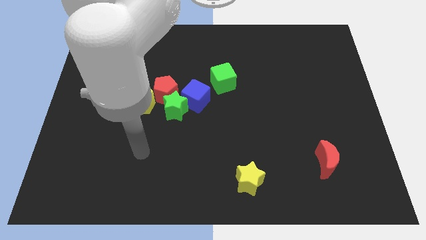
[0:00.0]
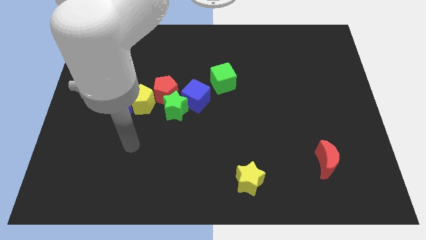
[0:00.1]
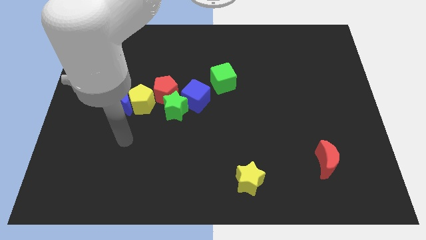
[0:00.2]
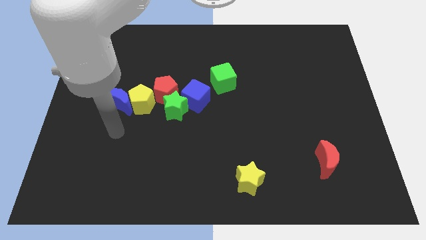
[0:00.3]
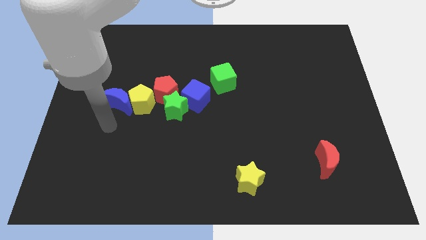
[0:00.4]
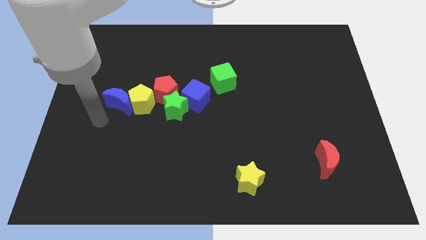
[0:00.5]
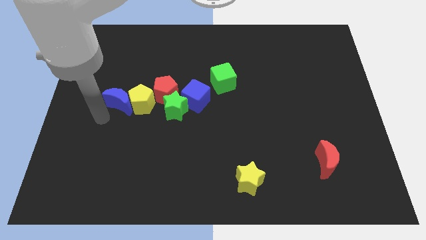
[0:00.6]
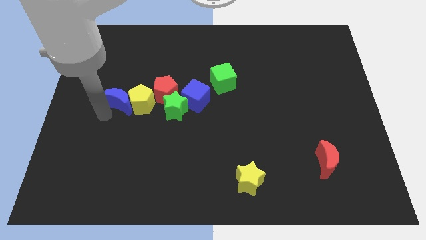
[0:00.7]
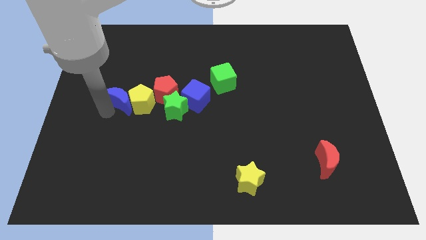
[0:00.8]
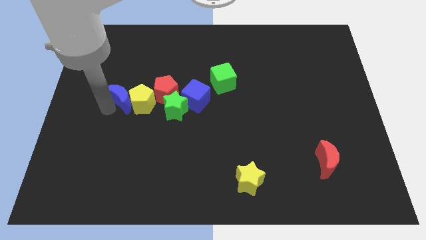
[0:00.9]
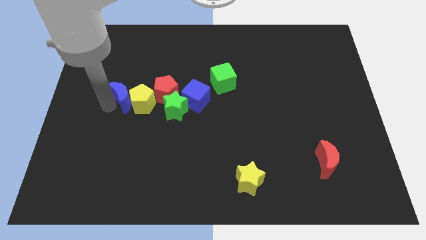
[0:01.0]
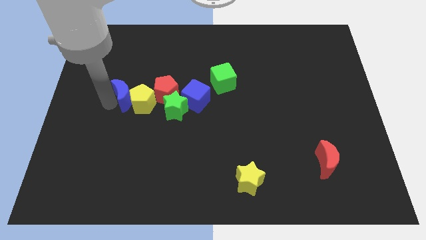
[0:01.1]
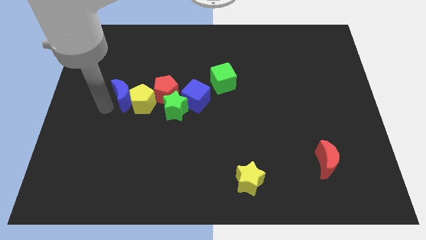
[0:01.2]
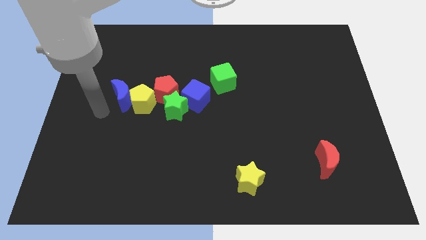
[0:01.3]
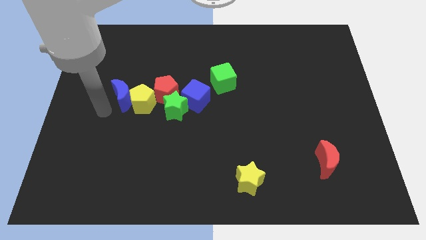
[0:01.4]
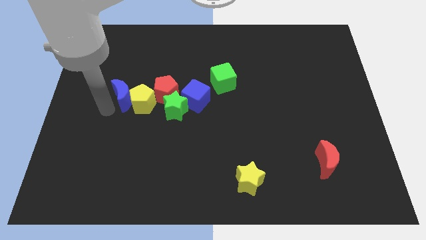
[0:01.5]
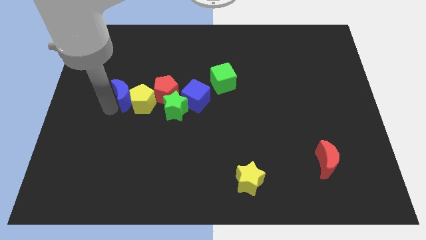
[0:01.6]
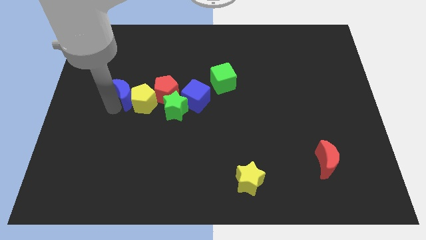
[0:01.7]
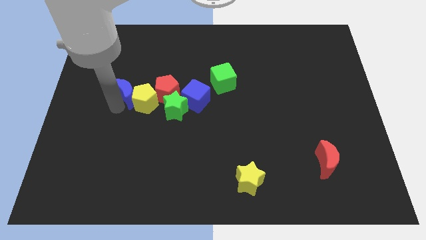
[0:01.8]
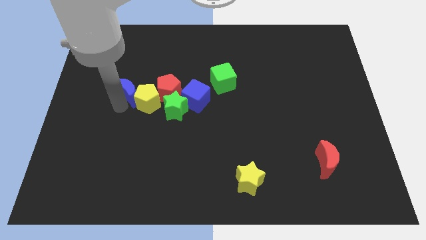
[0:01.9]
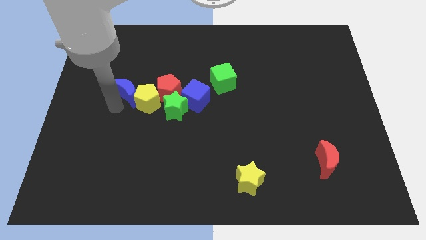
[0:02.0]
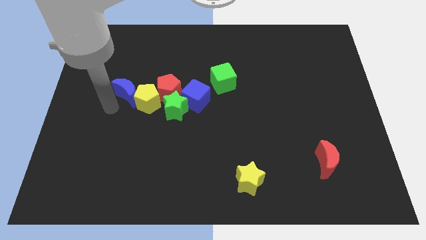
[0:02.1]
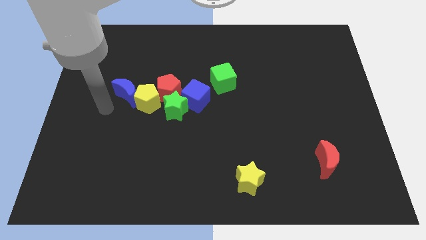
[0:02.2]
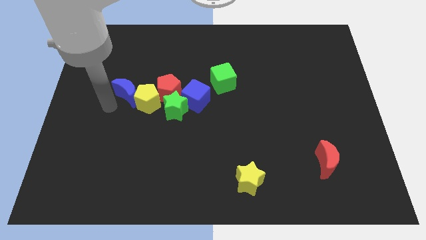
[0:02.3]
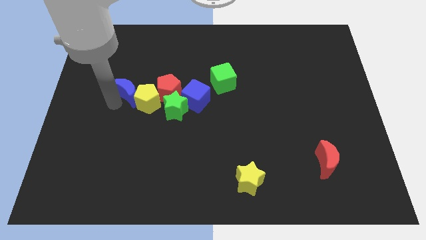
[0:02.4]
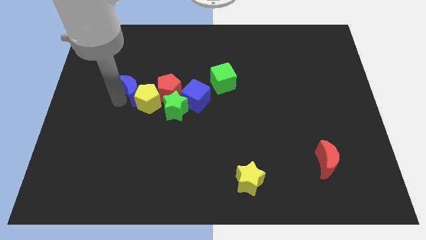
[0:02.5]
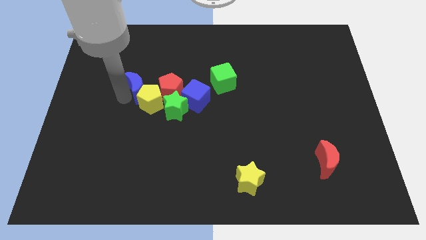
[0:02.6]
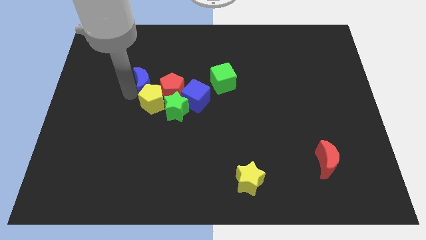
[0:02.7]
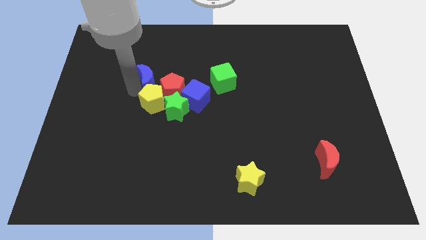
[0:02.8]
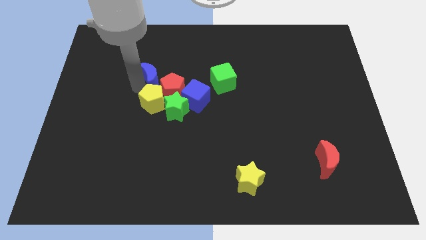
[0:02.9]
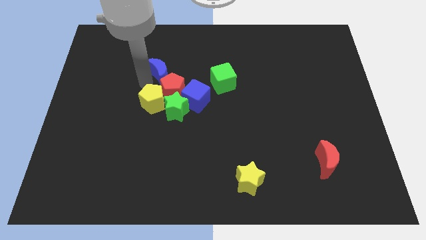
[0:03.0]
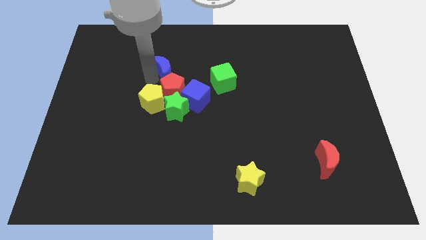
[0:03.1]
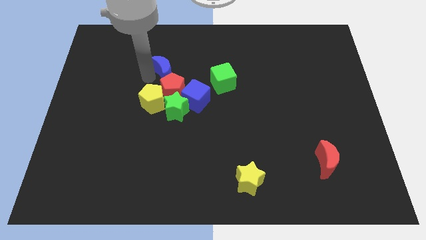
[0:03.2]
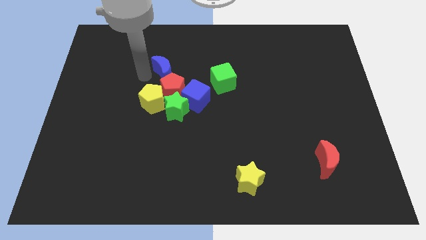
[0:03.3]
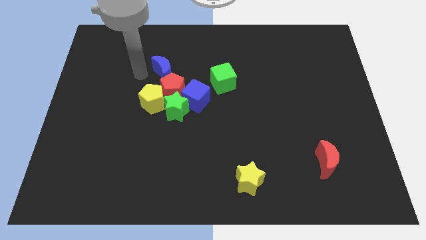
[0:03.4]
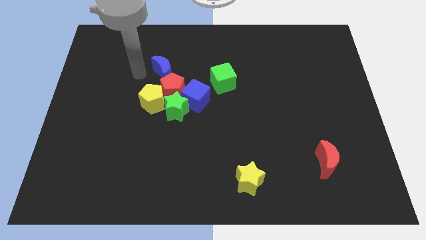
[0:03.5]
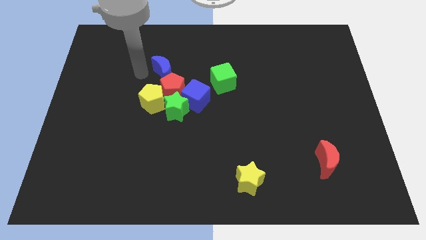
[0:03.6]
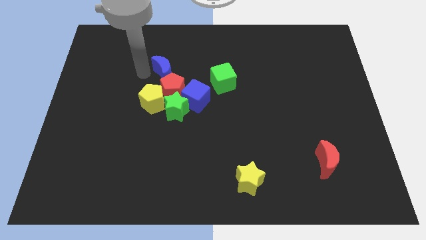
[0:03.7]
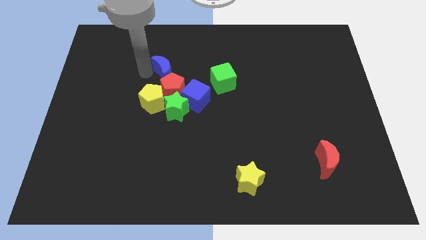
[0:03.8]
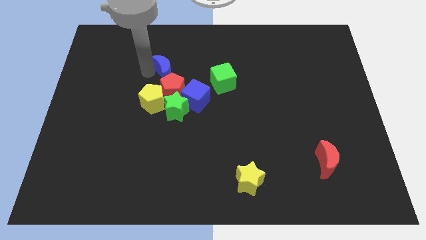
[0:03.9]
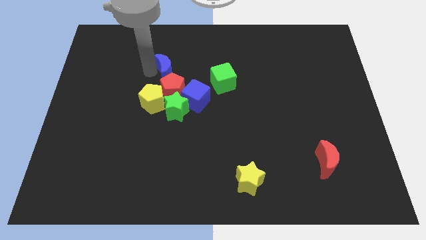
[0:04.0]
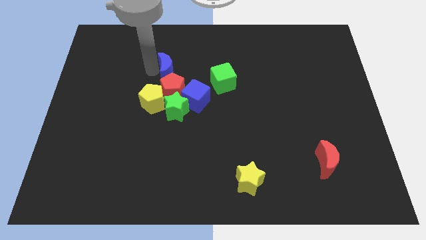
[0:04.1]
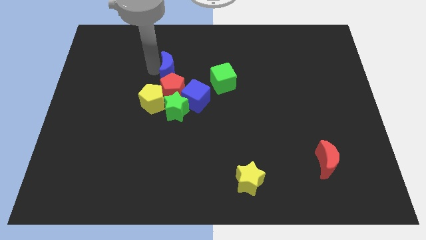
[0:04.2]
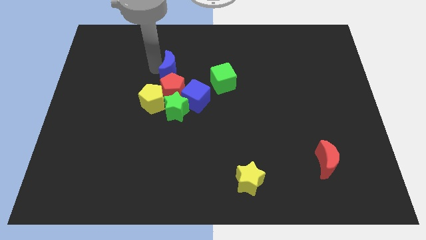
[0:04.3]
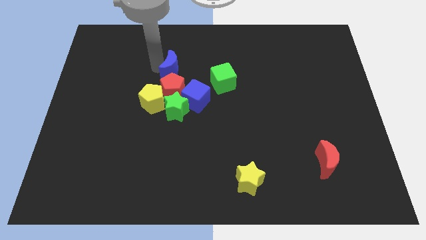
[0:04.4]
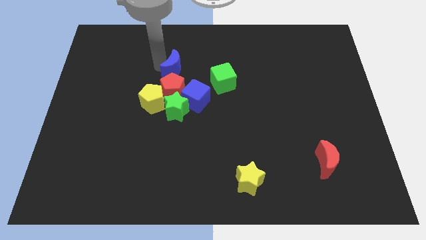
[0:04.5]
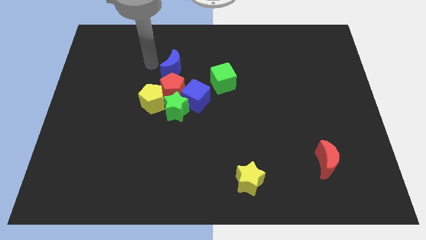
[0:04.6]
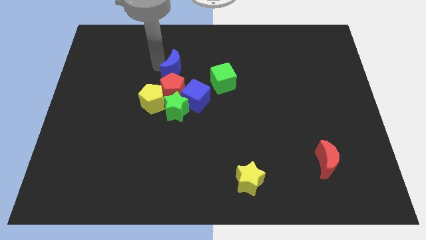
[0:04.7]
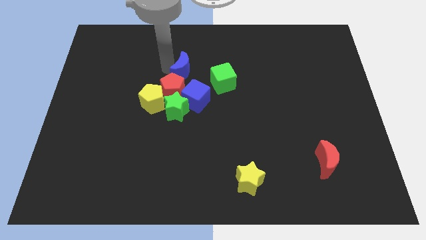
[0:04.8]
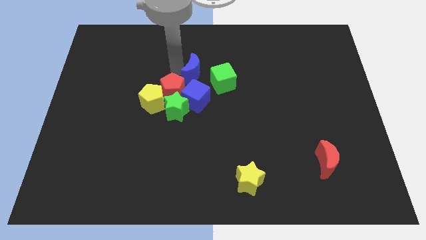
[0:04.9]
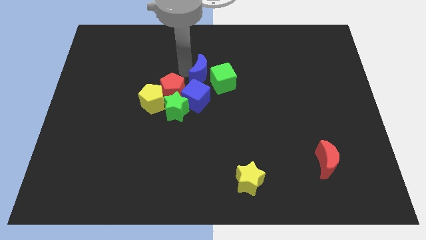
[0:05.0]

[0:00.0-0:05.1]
move the blue moon close to the green cube

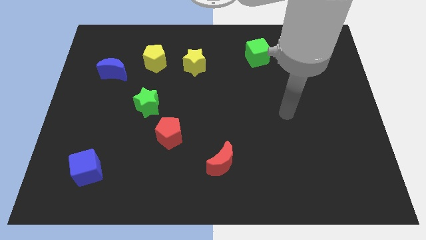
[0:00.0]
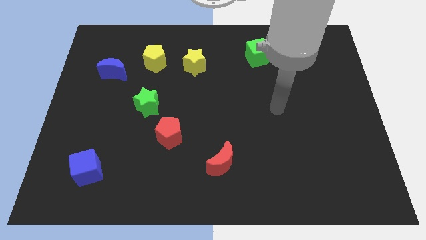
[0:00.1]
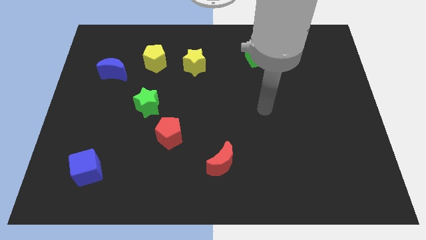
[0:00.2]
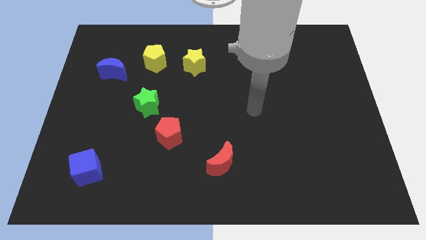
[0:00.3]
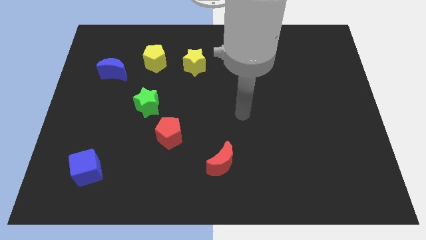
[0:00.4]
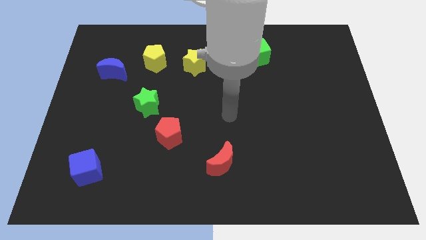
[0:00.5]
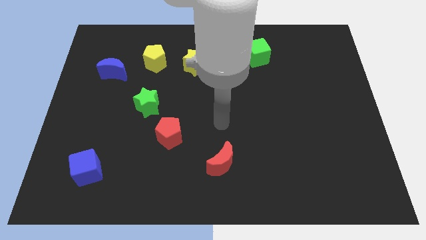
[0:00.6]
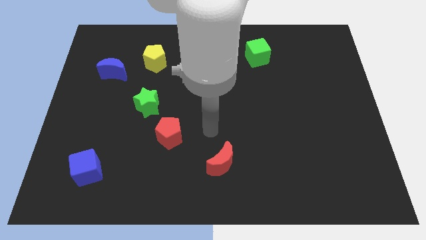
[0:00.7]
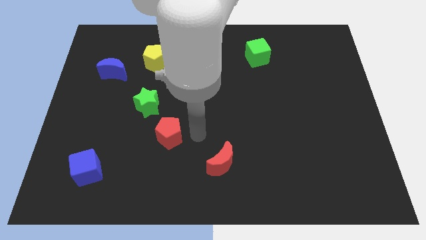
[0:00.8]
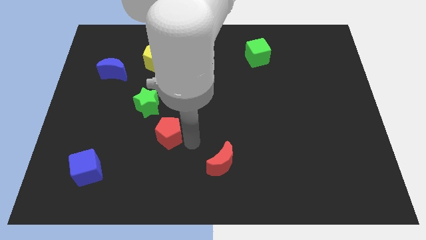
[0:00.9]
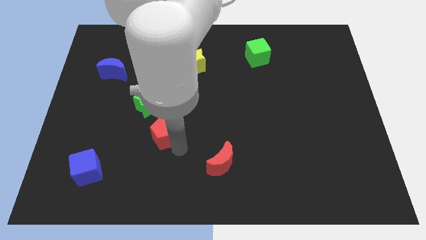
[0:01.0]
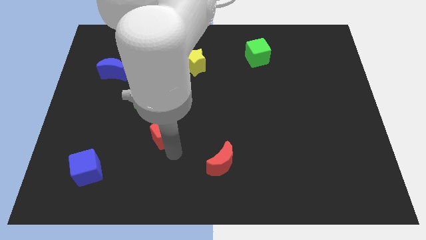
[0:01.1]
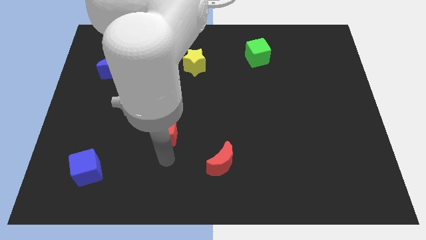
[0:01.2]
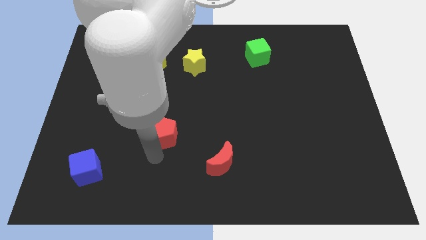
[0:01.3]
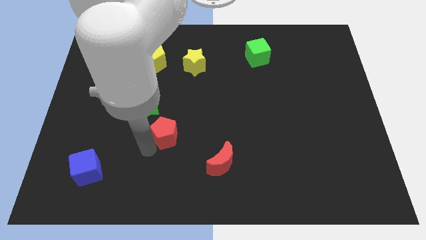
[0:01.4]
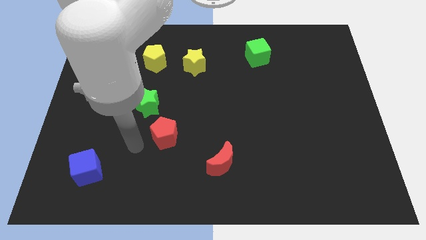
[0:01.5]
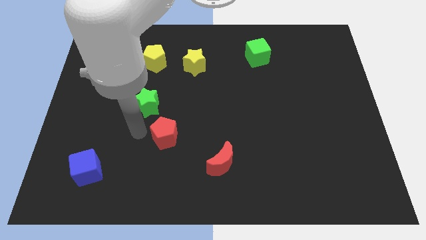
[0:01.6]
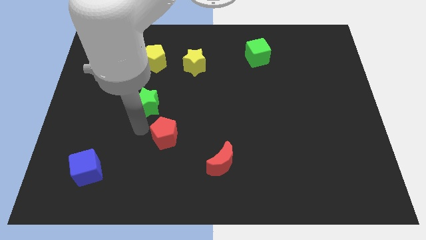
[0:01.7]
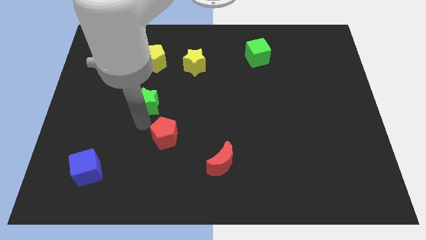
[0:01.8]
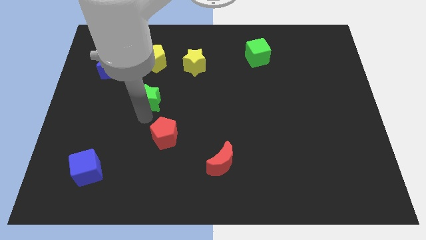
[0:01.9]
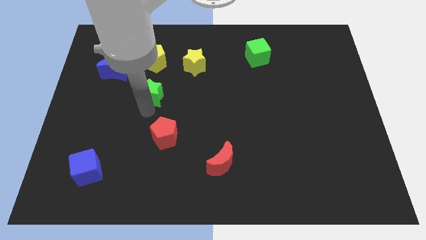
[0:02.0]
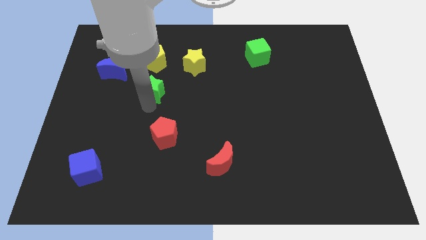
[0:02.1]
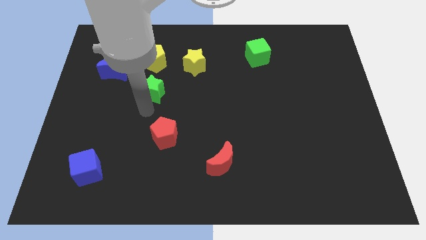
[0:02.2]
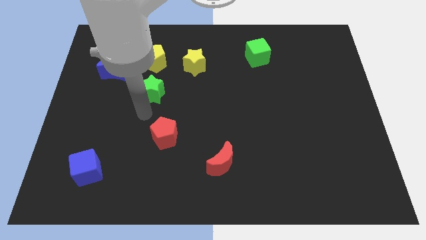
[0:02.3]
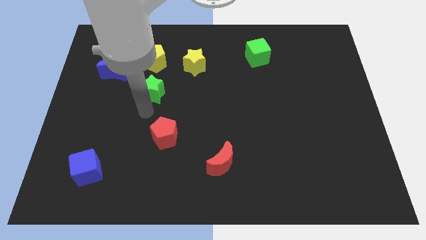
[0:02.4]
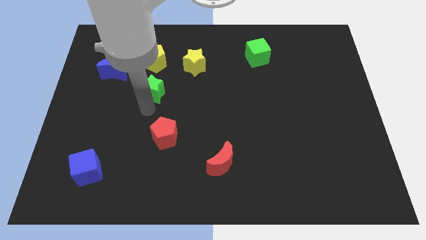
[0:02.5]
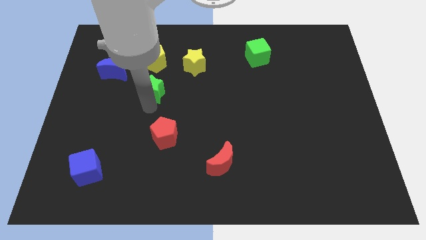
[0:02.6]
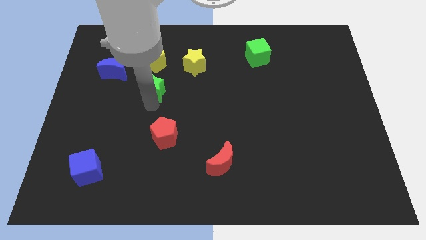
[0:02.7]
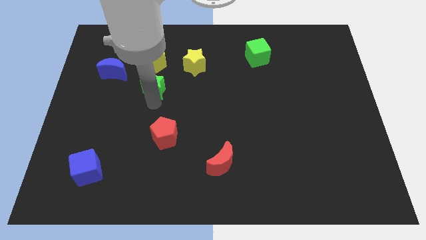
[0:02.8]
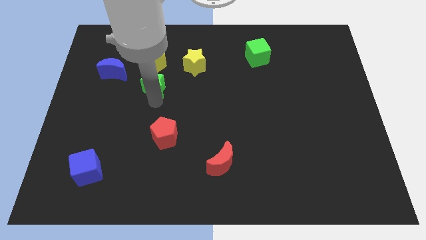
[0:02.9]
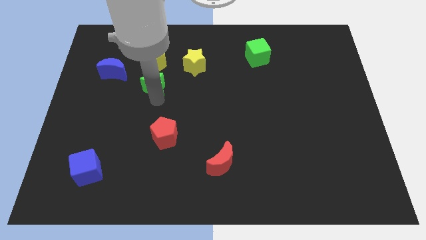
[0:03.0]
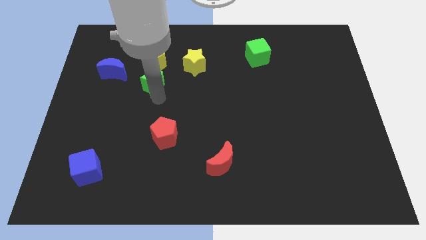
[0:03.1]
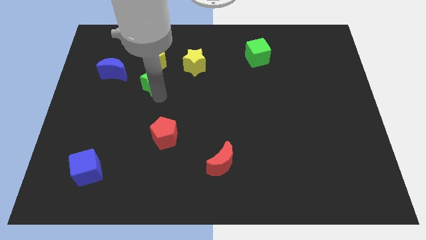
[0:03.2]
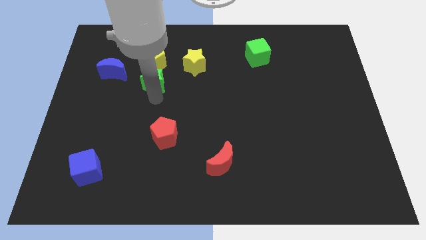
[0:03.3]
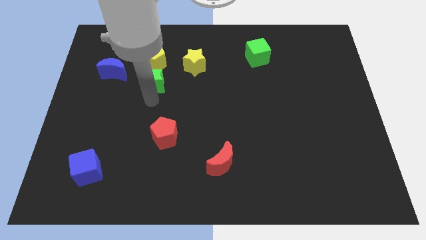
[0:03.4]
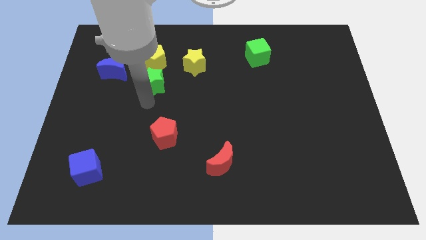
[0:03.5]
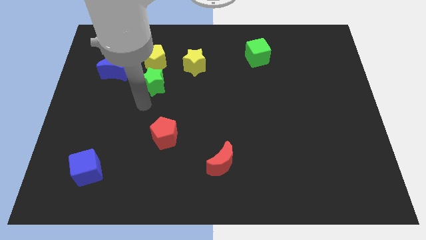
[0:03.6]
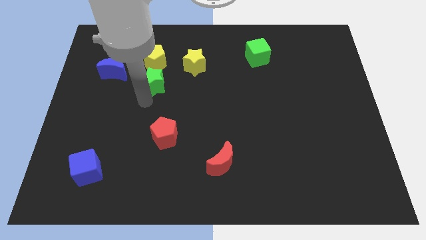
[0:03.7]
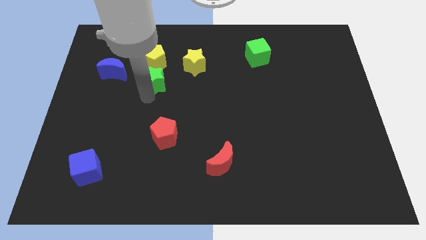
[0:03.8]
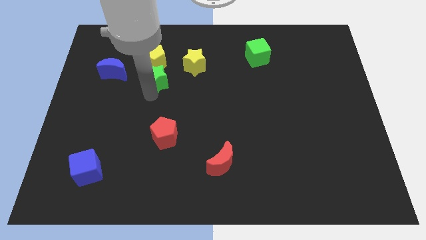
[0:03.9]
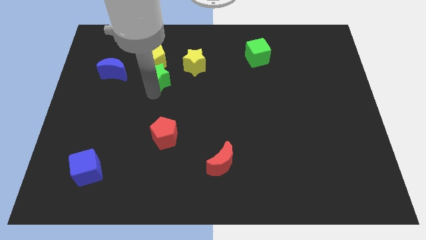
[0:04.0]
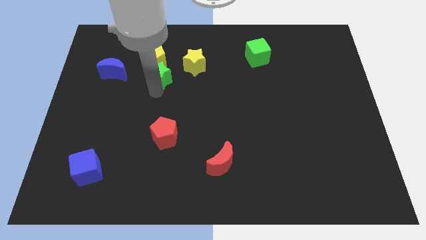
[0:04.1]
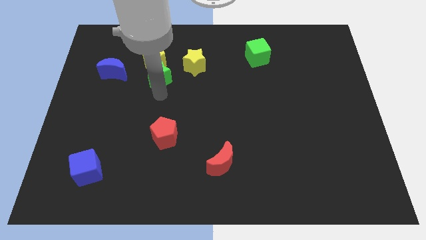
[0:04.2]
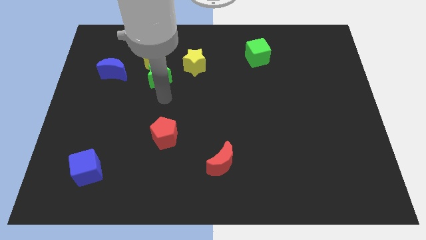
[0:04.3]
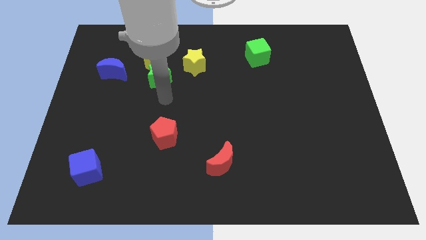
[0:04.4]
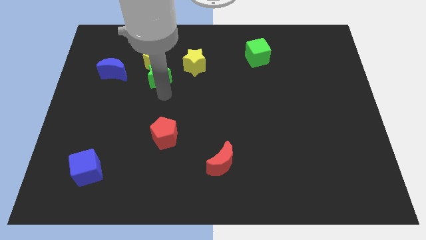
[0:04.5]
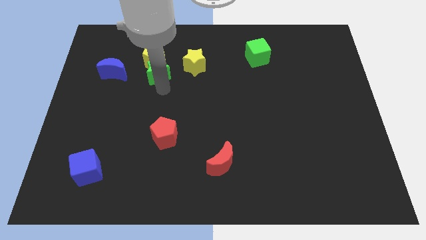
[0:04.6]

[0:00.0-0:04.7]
slide the green star close to the yellow pentagon
